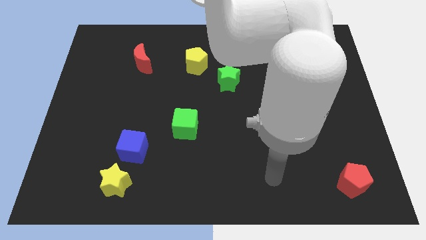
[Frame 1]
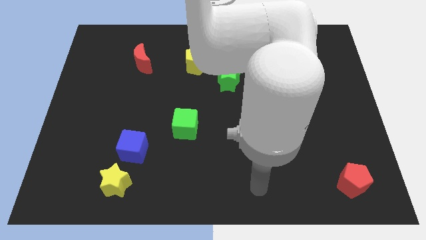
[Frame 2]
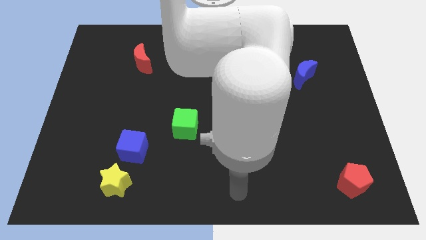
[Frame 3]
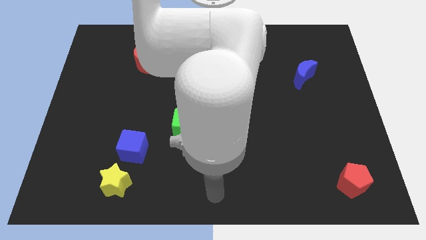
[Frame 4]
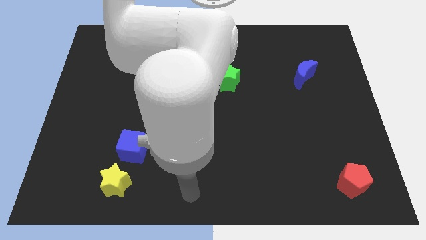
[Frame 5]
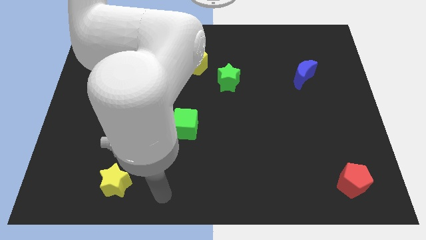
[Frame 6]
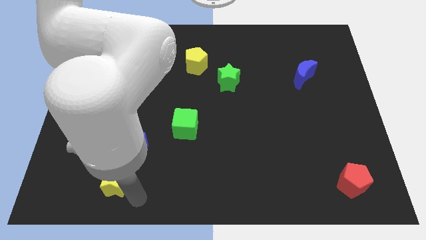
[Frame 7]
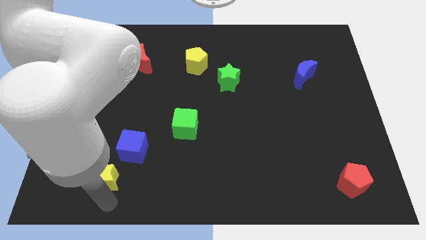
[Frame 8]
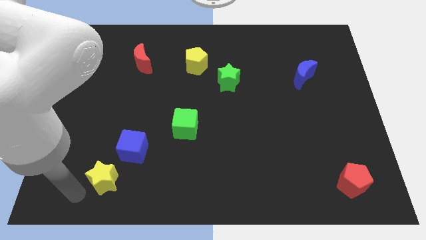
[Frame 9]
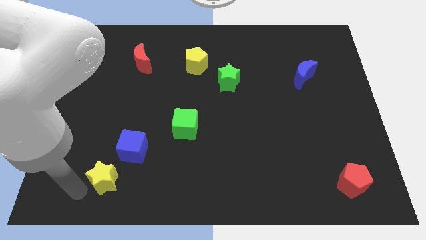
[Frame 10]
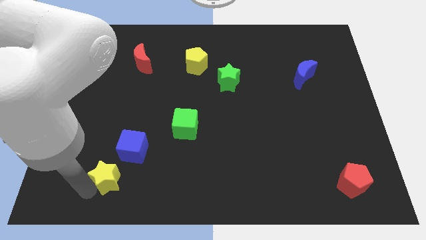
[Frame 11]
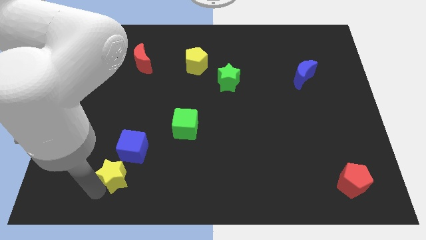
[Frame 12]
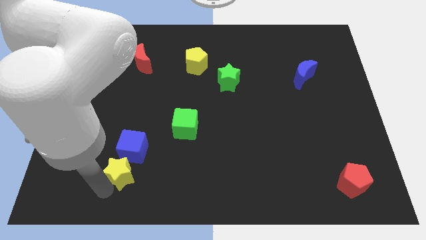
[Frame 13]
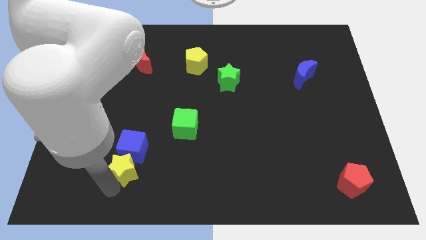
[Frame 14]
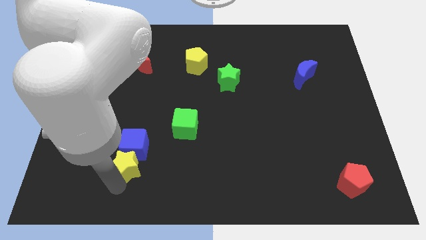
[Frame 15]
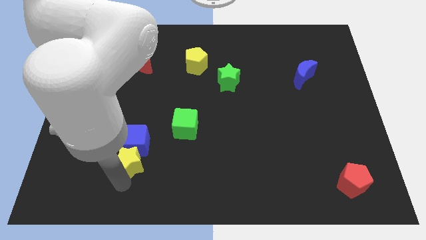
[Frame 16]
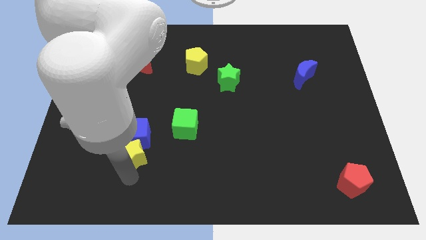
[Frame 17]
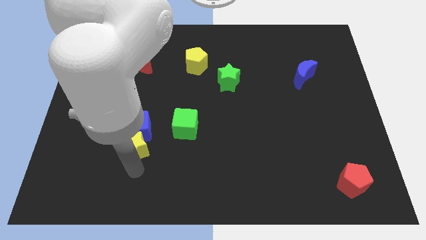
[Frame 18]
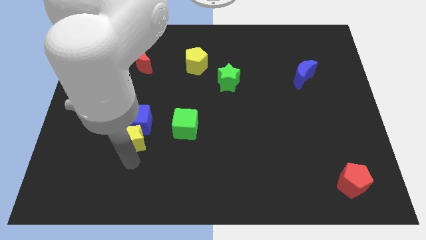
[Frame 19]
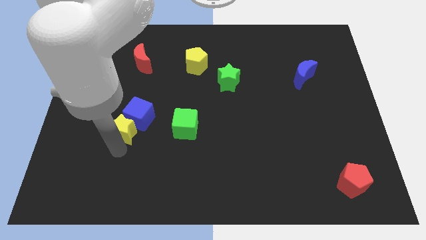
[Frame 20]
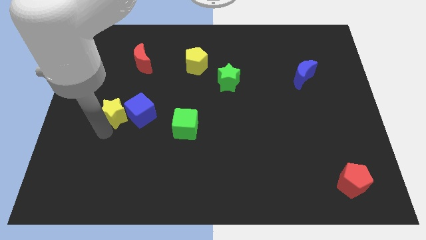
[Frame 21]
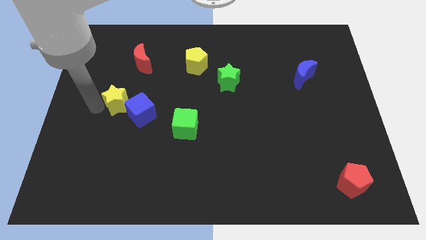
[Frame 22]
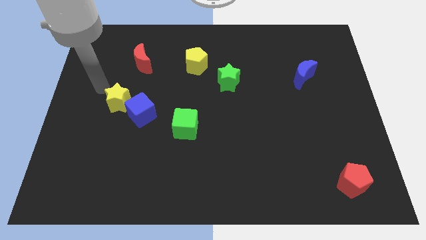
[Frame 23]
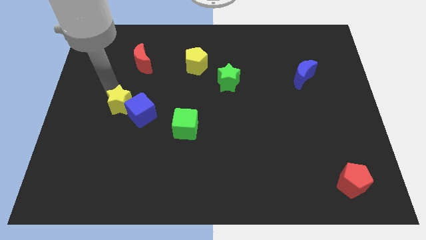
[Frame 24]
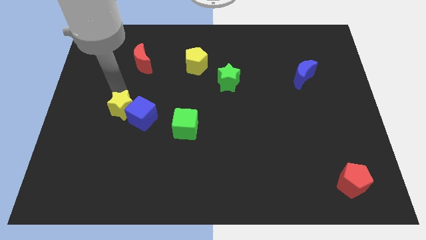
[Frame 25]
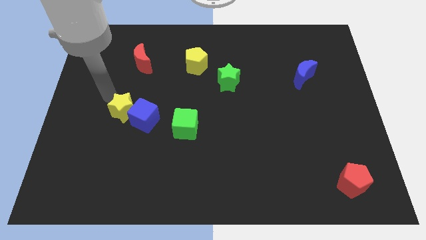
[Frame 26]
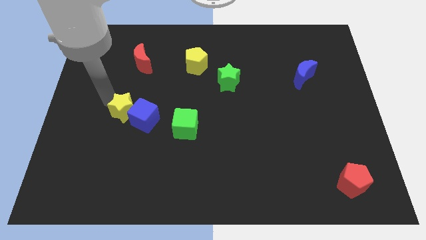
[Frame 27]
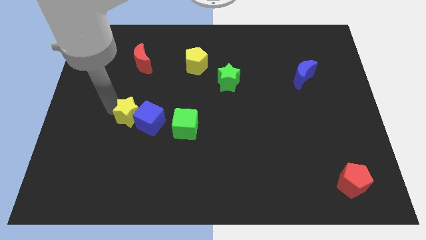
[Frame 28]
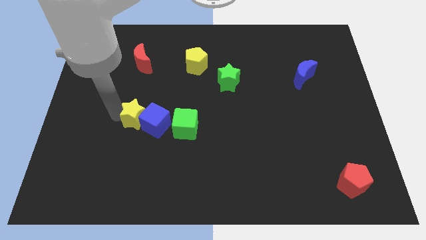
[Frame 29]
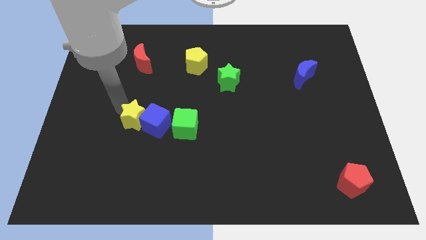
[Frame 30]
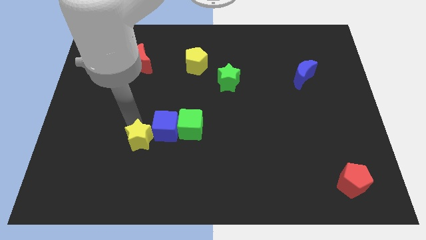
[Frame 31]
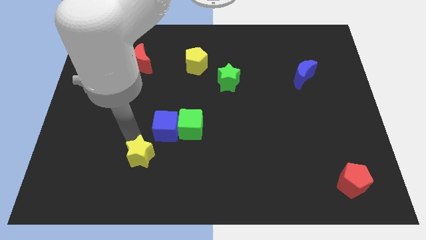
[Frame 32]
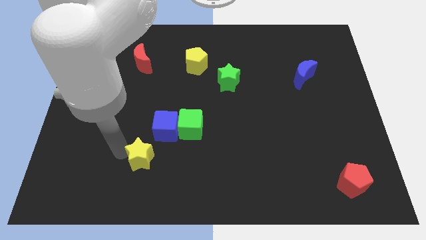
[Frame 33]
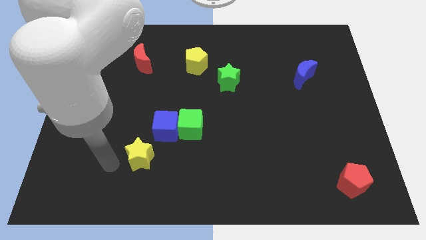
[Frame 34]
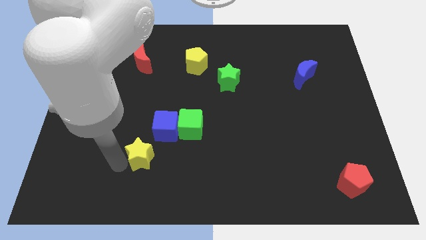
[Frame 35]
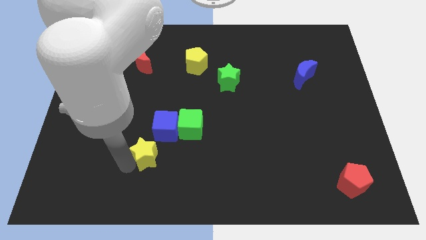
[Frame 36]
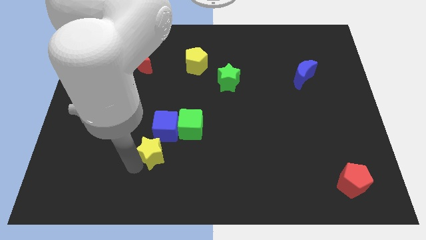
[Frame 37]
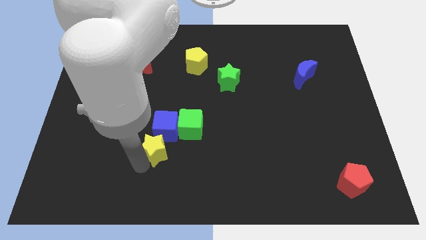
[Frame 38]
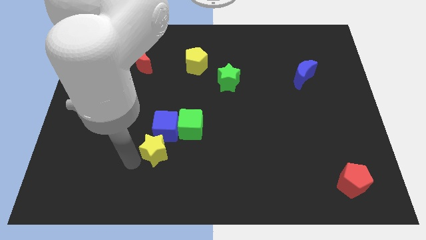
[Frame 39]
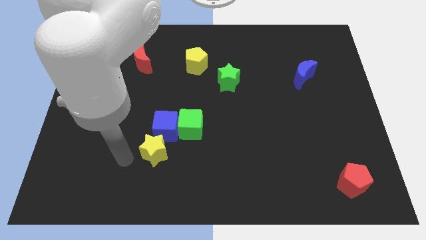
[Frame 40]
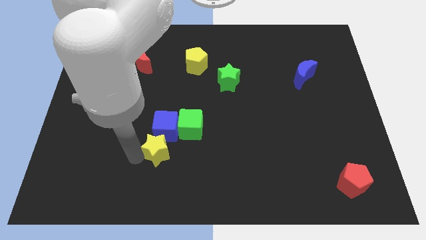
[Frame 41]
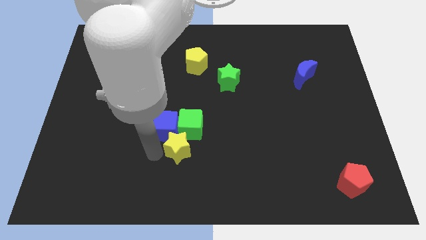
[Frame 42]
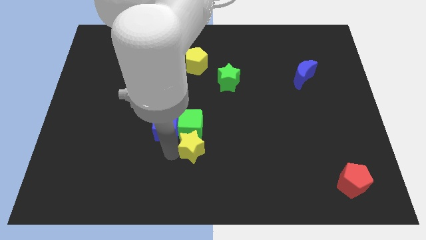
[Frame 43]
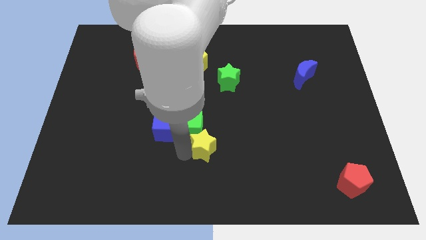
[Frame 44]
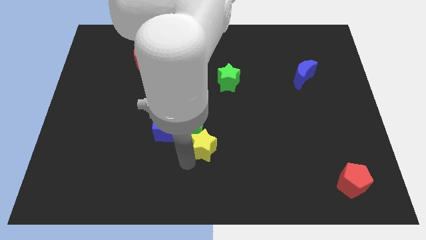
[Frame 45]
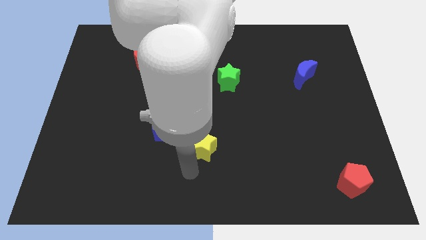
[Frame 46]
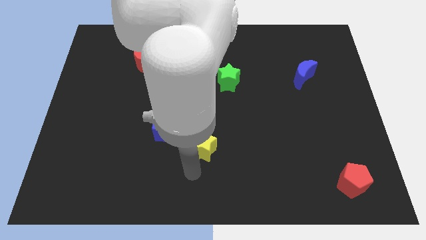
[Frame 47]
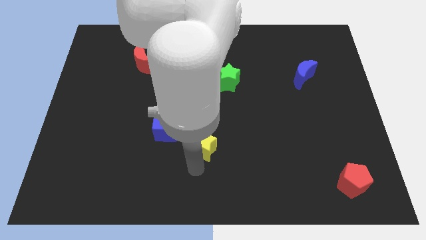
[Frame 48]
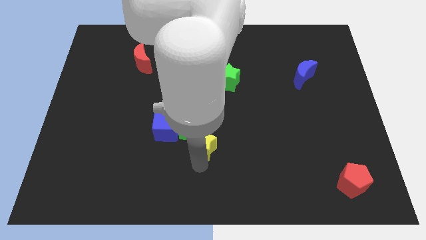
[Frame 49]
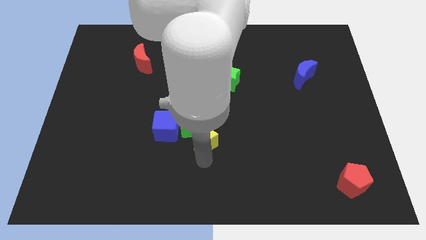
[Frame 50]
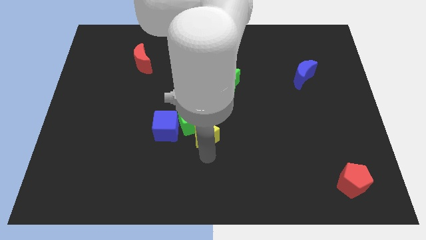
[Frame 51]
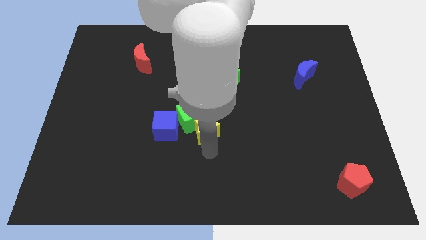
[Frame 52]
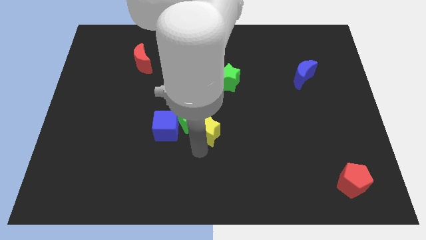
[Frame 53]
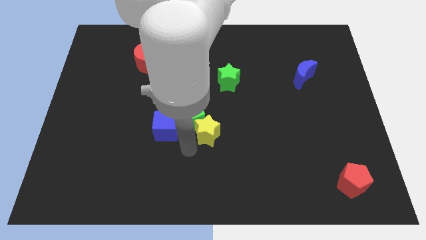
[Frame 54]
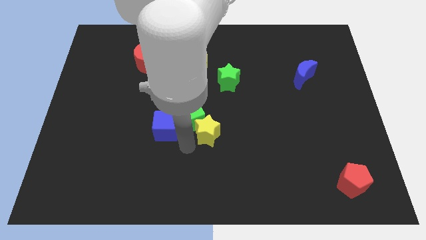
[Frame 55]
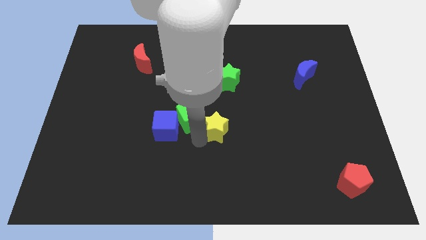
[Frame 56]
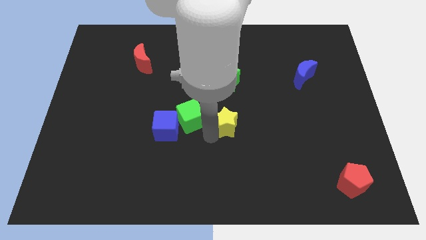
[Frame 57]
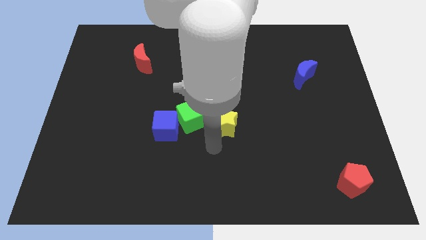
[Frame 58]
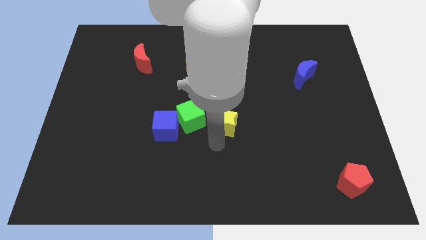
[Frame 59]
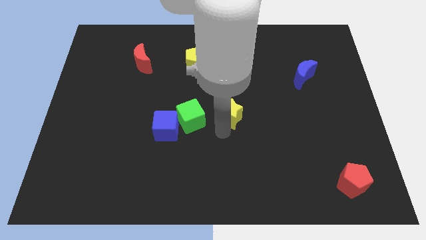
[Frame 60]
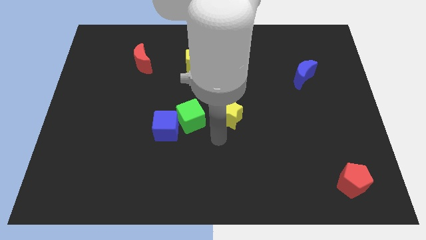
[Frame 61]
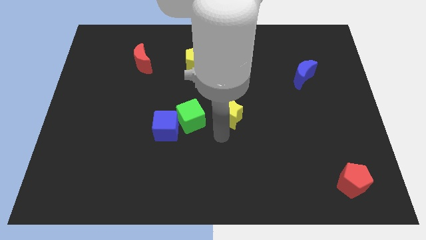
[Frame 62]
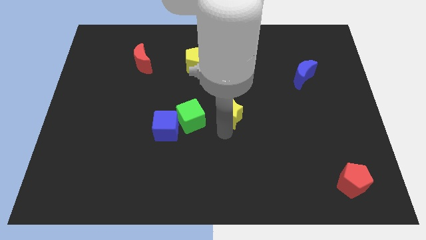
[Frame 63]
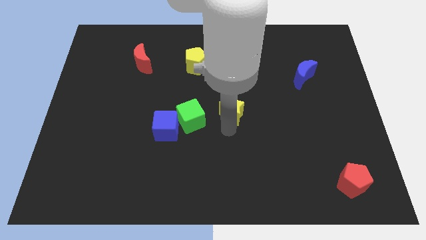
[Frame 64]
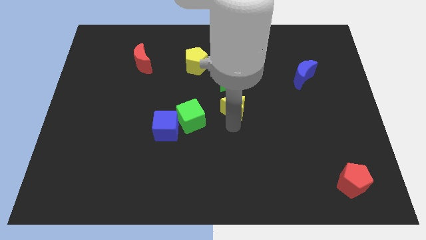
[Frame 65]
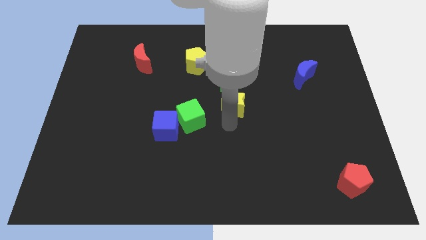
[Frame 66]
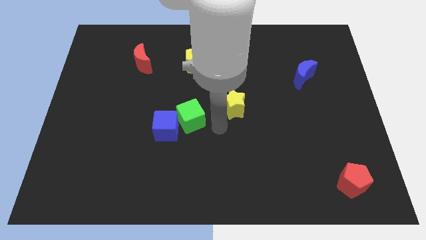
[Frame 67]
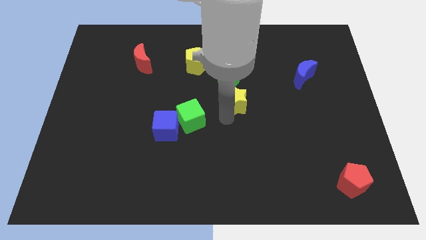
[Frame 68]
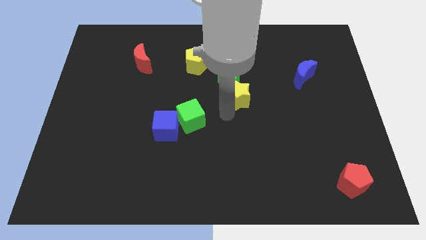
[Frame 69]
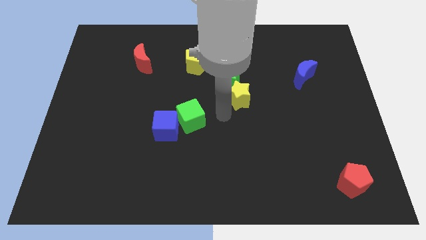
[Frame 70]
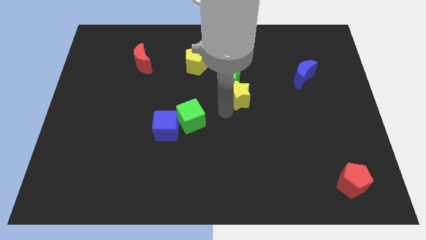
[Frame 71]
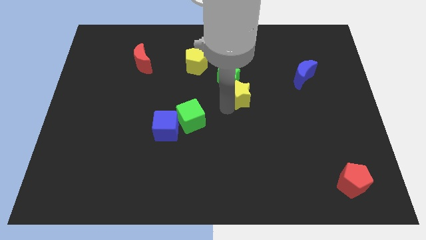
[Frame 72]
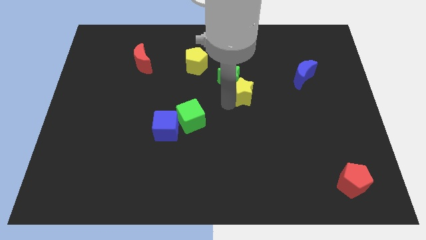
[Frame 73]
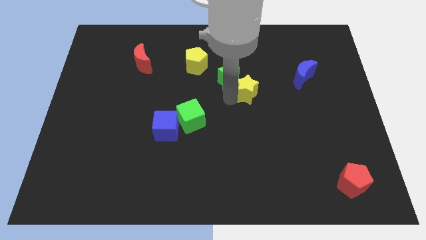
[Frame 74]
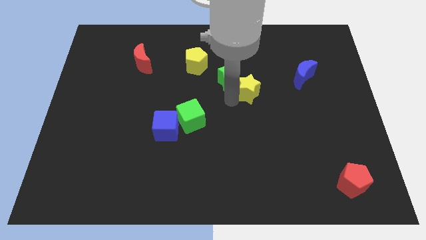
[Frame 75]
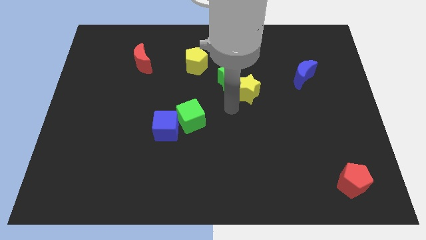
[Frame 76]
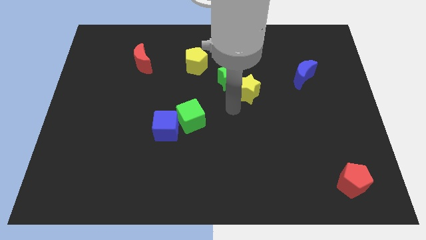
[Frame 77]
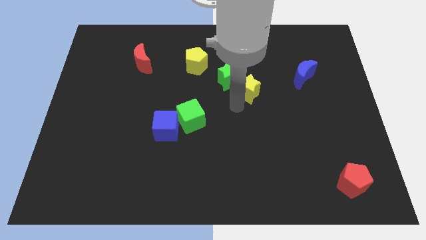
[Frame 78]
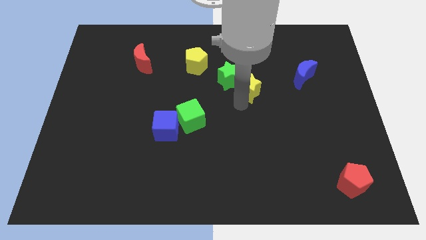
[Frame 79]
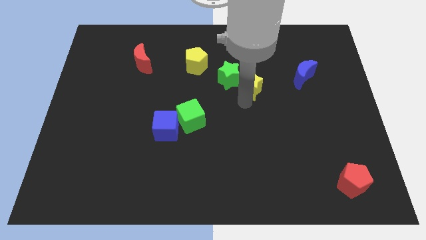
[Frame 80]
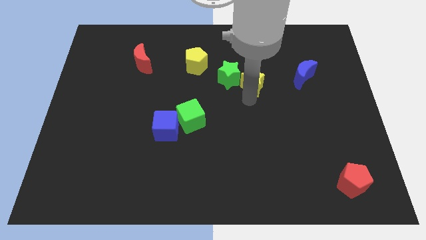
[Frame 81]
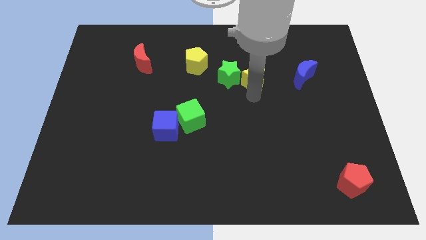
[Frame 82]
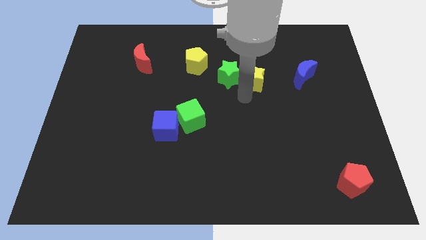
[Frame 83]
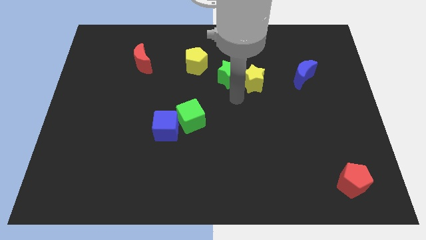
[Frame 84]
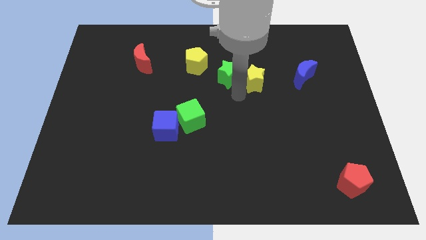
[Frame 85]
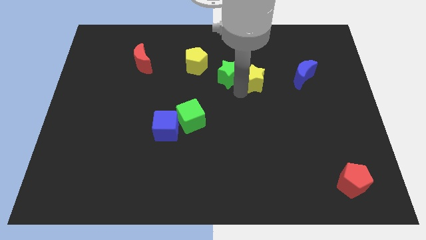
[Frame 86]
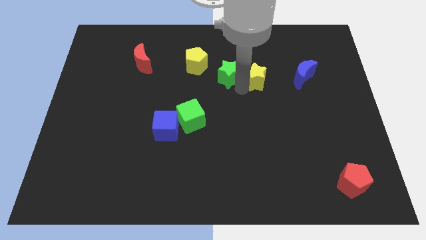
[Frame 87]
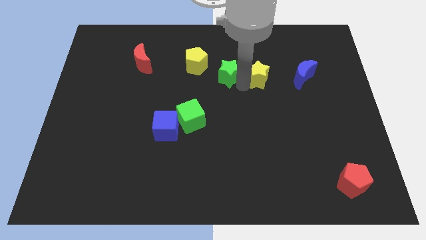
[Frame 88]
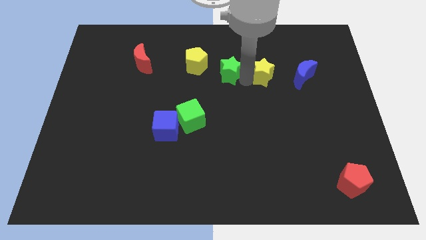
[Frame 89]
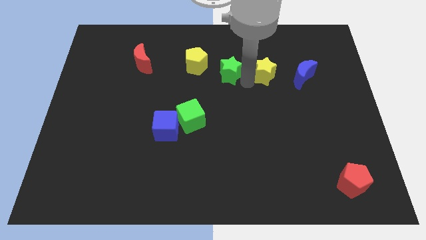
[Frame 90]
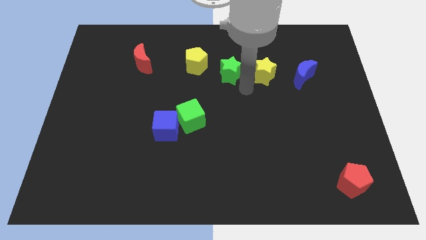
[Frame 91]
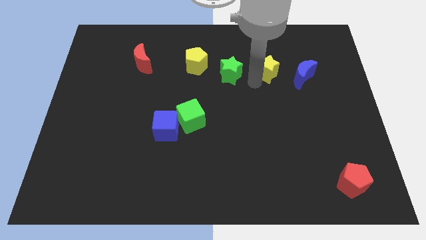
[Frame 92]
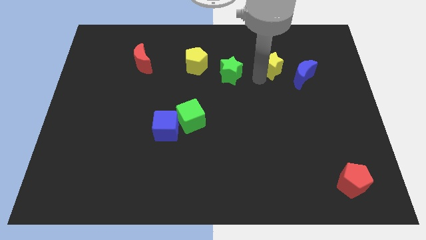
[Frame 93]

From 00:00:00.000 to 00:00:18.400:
move the yellow star diagonally up and to the left of the blue moon
